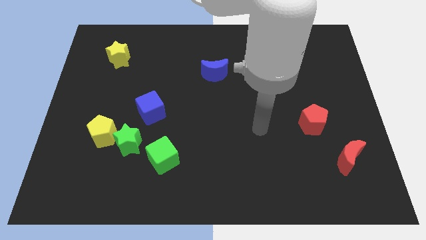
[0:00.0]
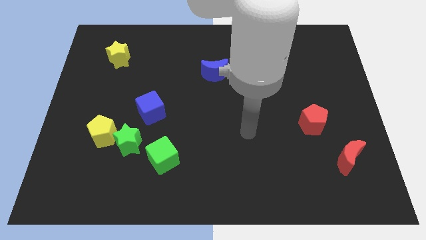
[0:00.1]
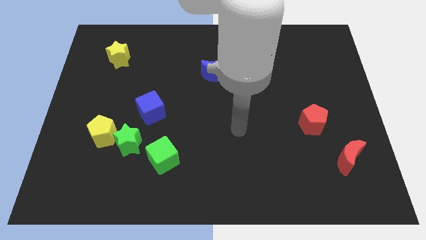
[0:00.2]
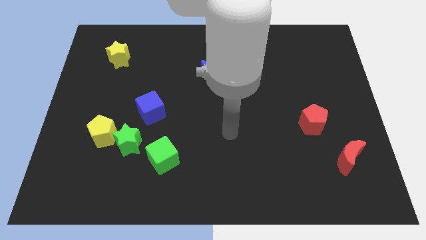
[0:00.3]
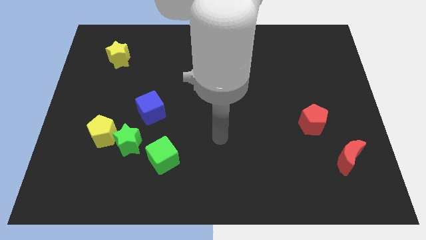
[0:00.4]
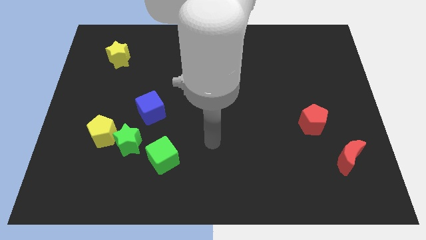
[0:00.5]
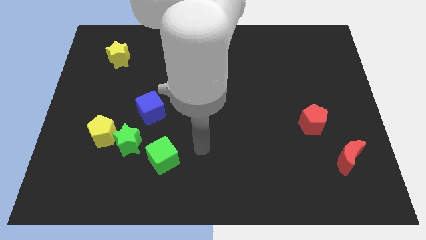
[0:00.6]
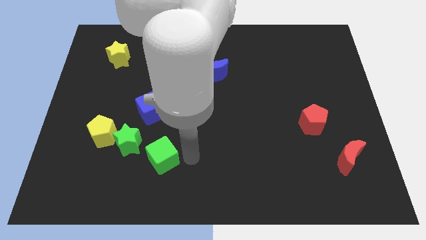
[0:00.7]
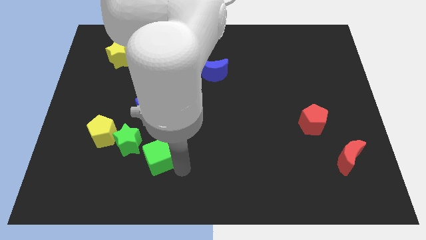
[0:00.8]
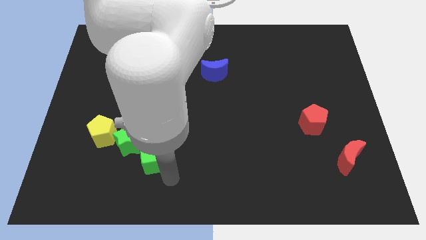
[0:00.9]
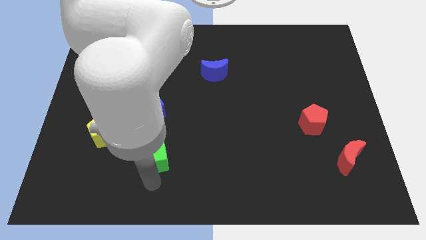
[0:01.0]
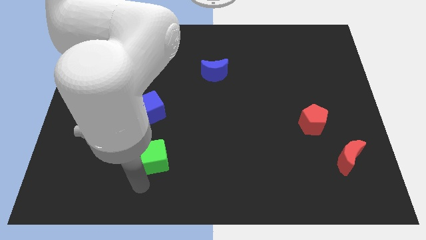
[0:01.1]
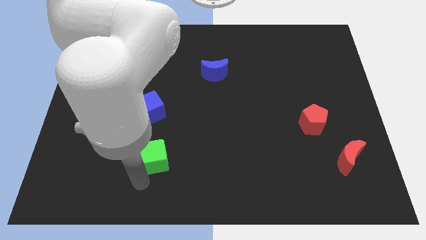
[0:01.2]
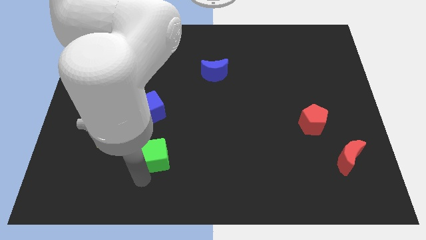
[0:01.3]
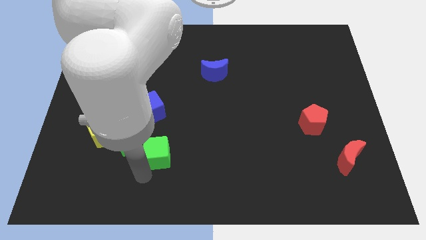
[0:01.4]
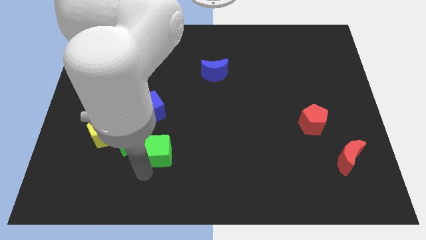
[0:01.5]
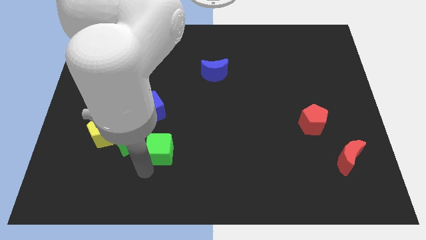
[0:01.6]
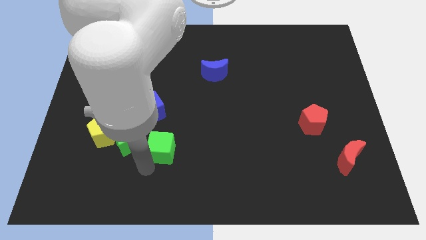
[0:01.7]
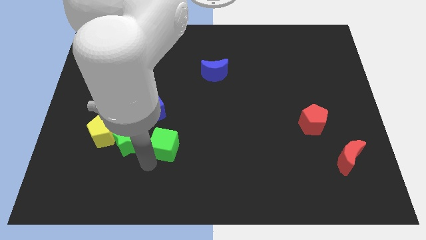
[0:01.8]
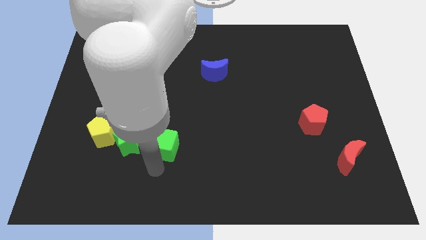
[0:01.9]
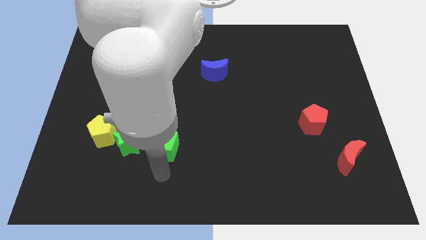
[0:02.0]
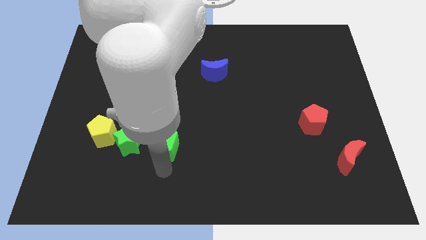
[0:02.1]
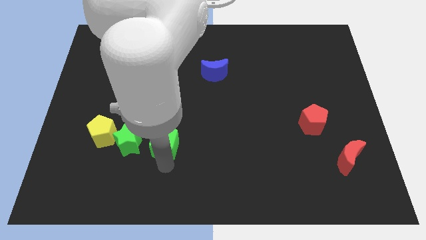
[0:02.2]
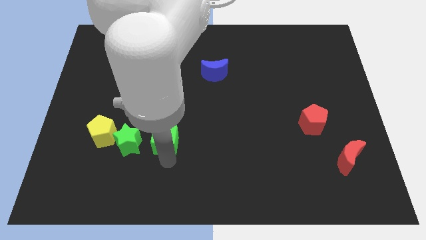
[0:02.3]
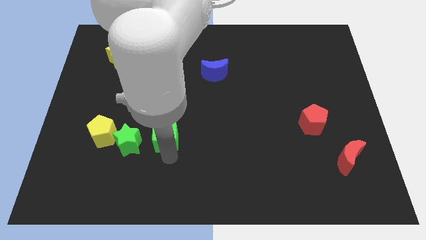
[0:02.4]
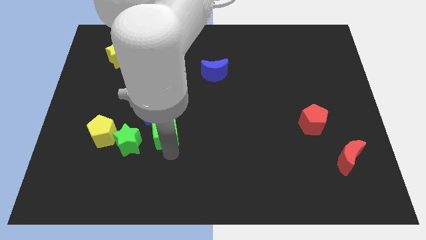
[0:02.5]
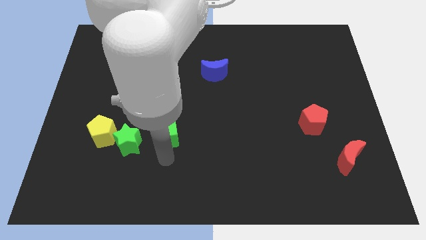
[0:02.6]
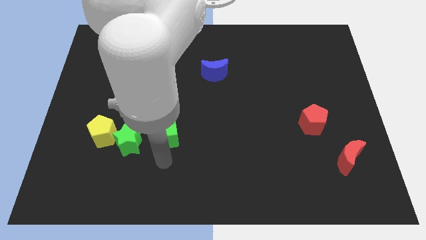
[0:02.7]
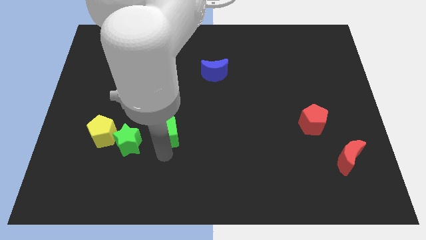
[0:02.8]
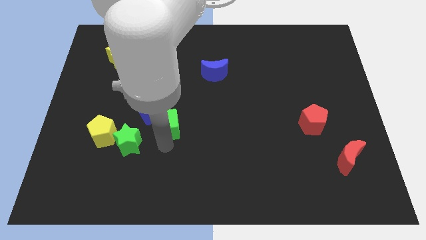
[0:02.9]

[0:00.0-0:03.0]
slightly slide the green cube up

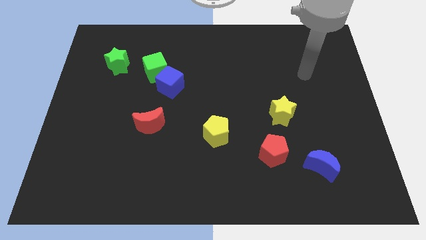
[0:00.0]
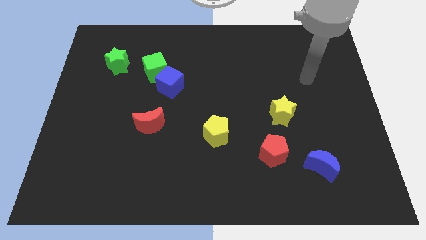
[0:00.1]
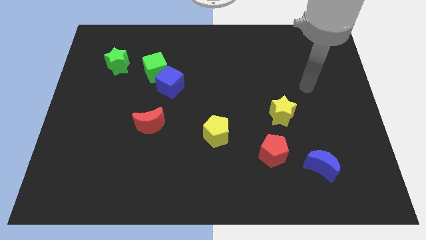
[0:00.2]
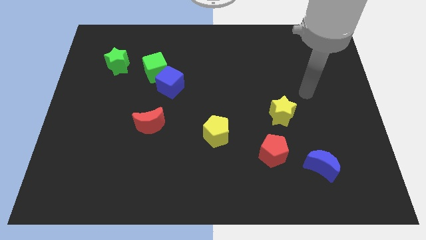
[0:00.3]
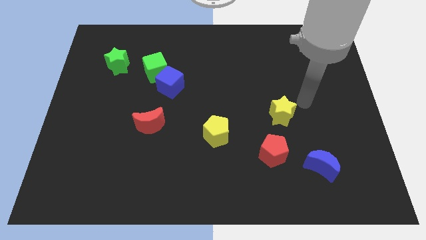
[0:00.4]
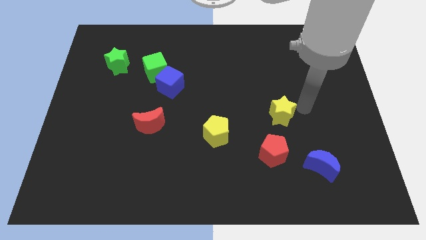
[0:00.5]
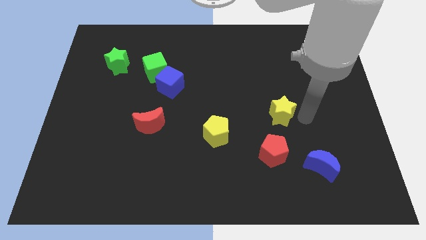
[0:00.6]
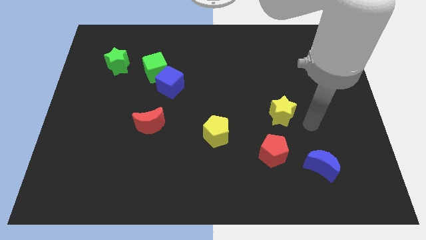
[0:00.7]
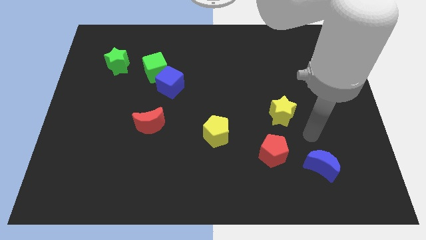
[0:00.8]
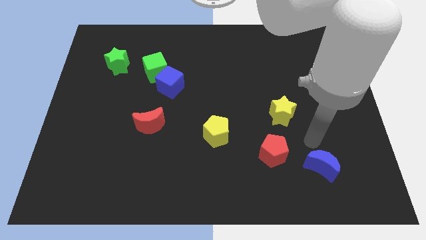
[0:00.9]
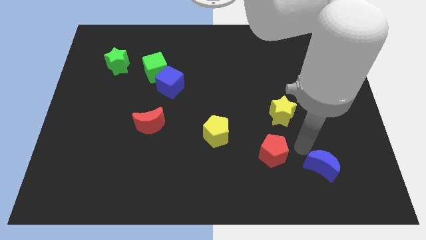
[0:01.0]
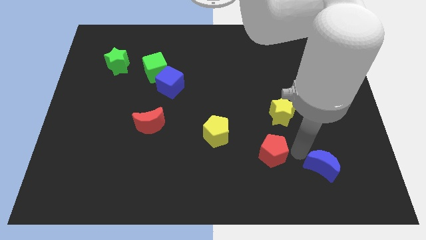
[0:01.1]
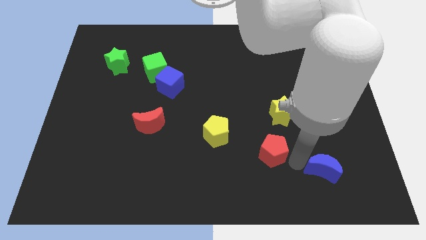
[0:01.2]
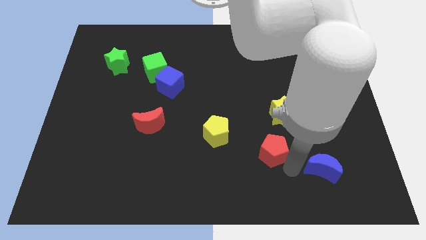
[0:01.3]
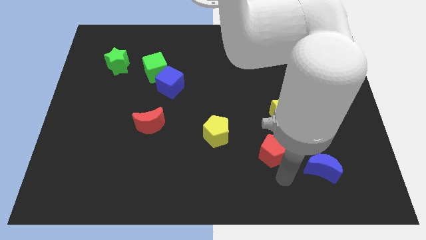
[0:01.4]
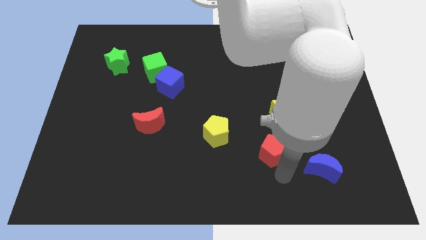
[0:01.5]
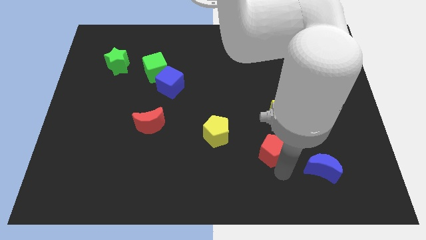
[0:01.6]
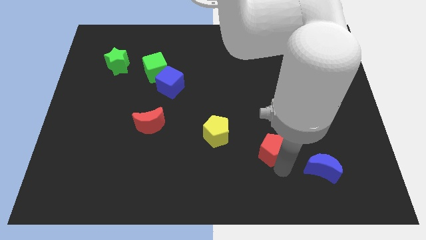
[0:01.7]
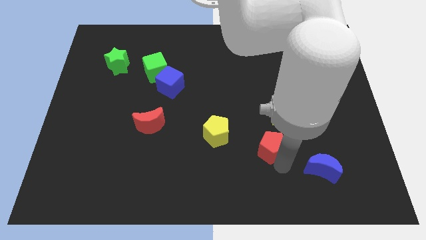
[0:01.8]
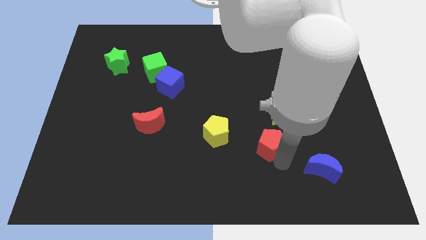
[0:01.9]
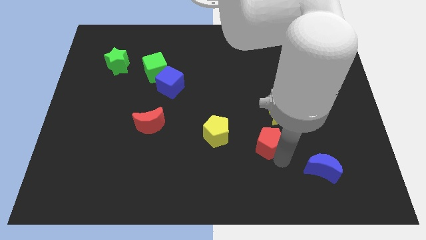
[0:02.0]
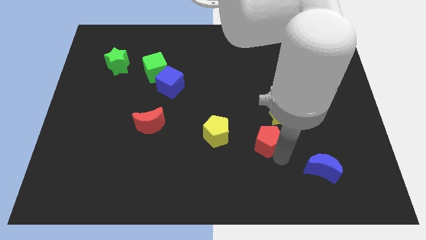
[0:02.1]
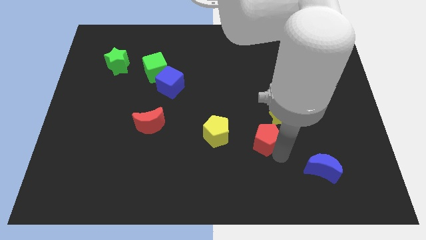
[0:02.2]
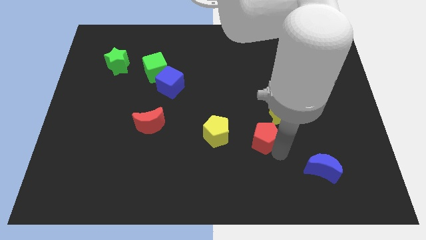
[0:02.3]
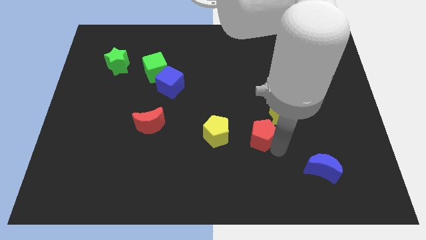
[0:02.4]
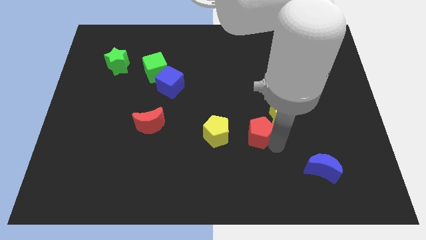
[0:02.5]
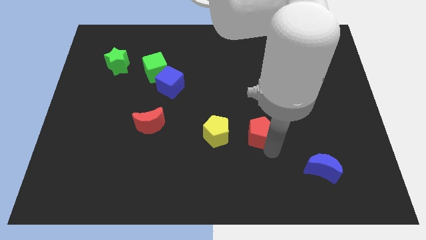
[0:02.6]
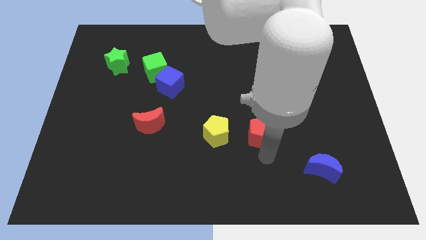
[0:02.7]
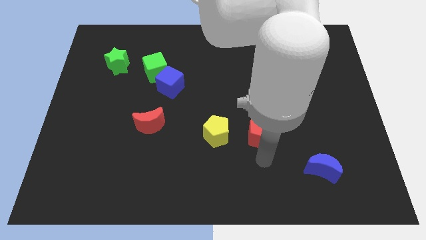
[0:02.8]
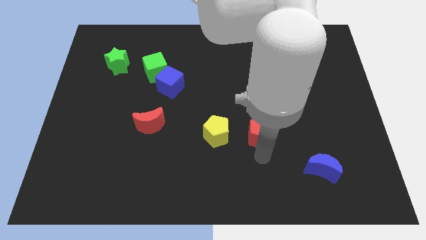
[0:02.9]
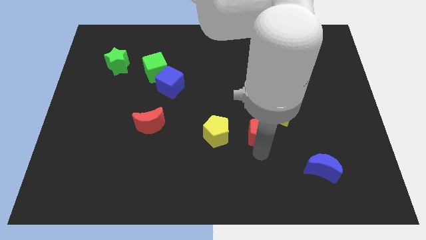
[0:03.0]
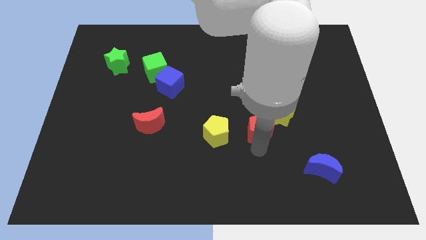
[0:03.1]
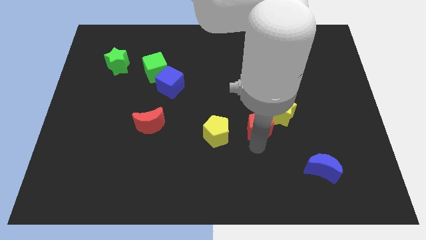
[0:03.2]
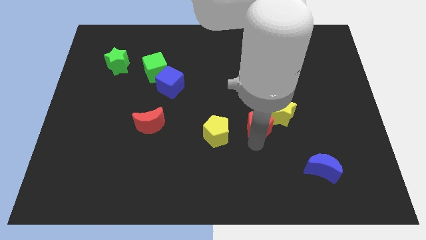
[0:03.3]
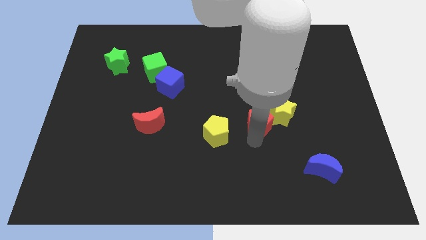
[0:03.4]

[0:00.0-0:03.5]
move the red pentagon a bit up

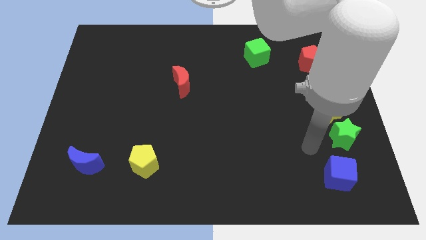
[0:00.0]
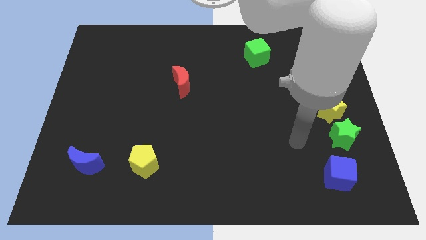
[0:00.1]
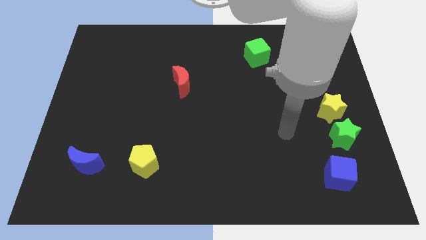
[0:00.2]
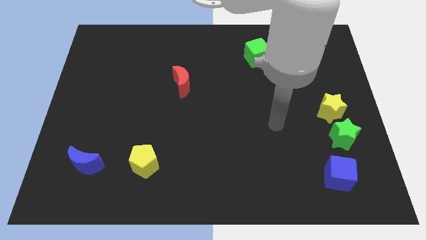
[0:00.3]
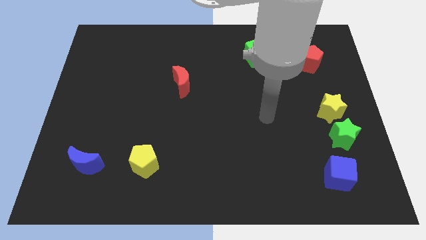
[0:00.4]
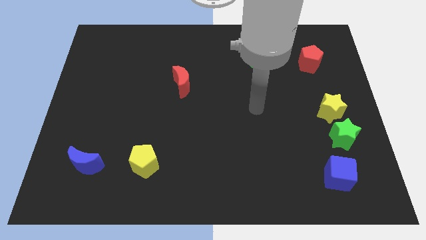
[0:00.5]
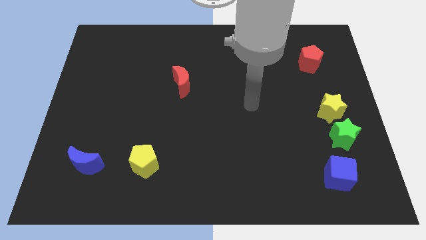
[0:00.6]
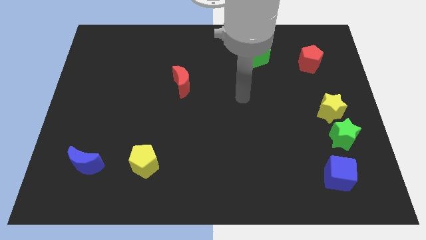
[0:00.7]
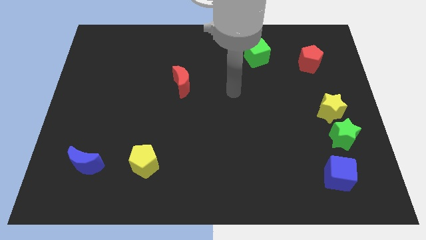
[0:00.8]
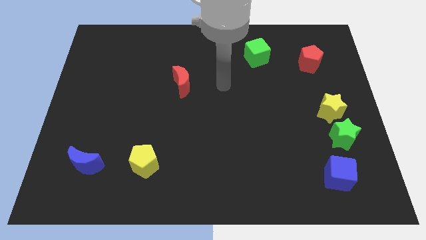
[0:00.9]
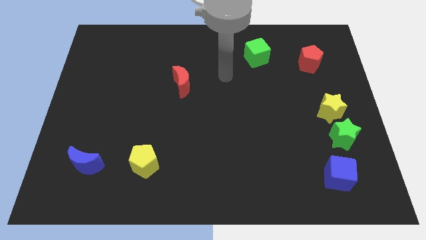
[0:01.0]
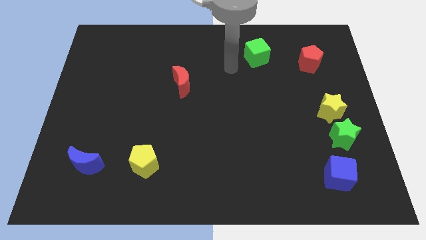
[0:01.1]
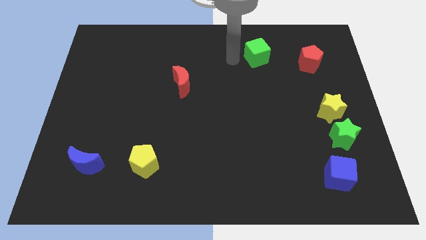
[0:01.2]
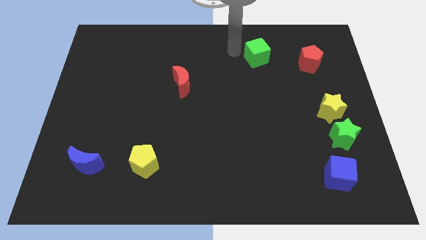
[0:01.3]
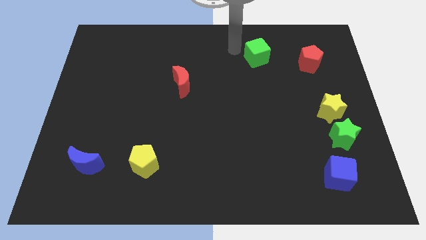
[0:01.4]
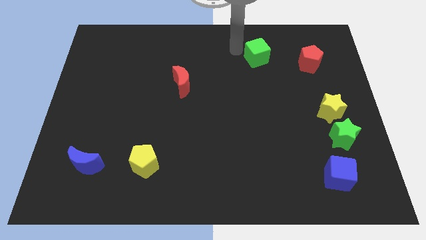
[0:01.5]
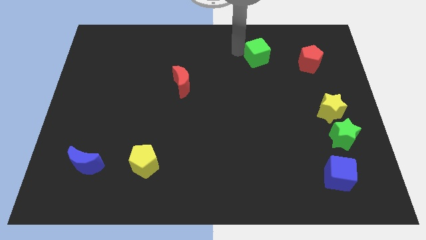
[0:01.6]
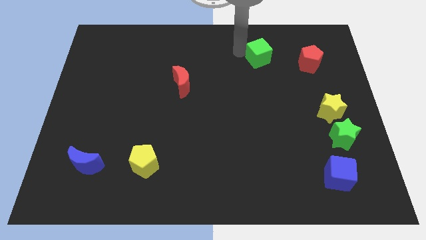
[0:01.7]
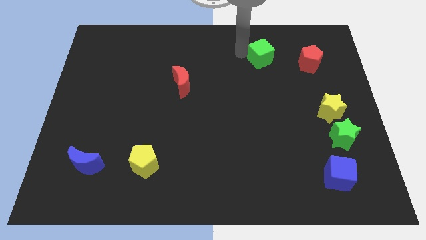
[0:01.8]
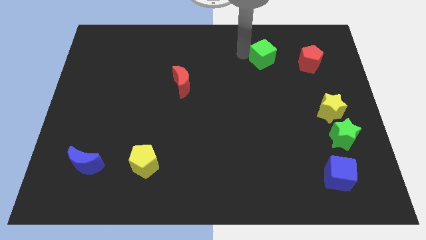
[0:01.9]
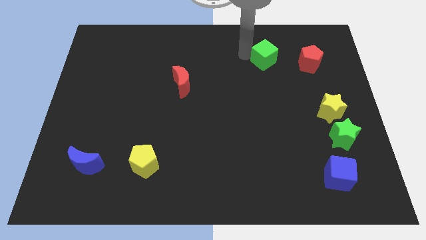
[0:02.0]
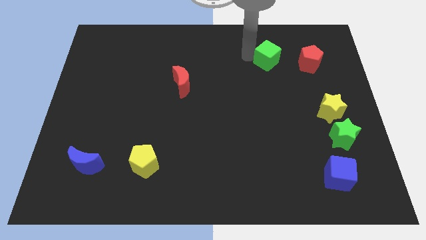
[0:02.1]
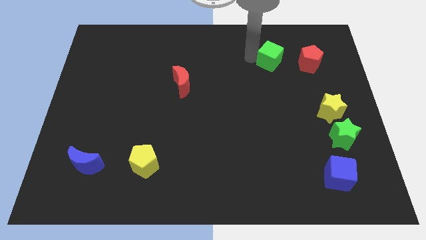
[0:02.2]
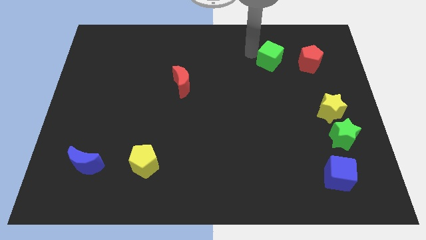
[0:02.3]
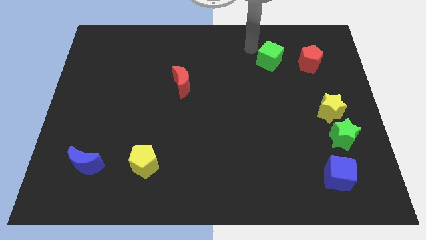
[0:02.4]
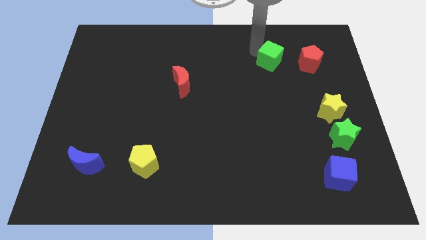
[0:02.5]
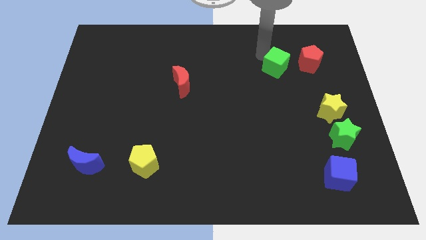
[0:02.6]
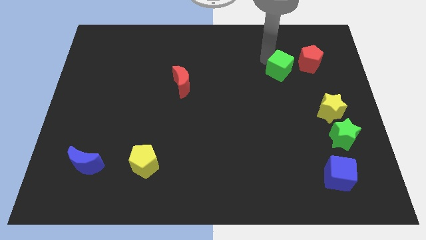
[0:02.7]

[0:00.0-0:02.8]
push the green cube downwards and then to the right slightly
